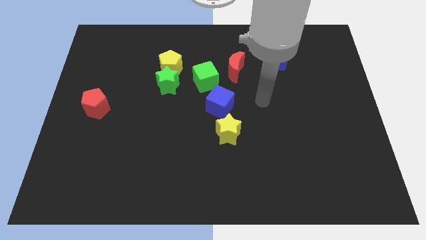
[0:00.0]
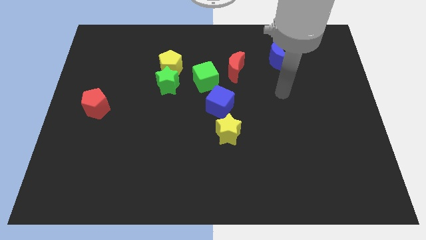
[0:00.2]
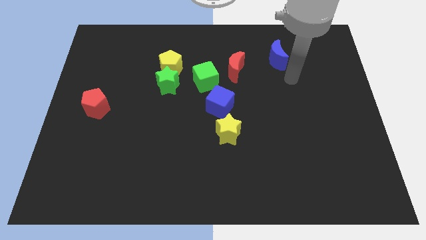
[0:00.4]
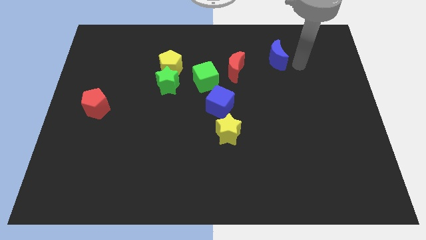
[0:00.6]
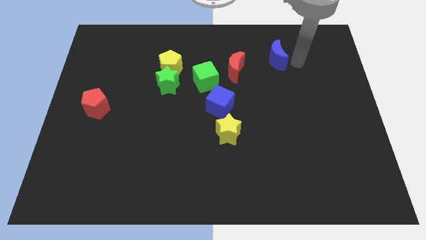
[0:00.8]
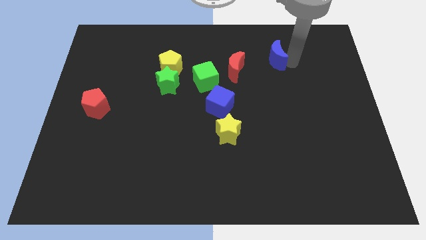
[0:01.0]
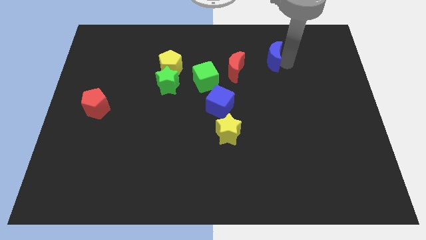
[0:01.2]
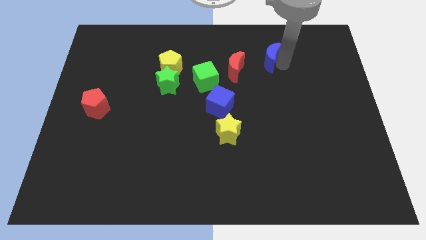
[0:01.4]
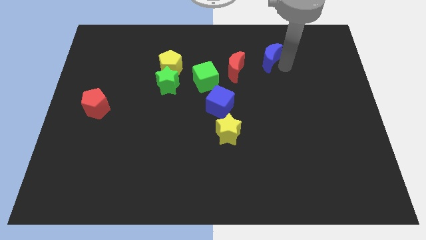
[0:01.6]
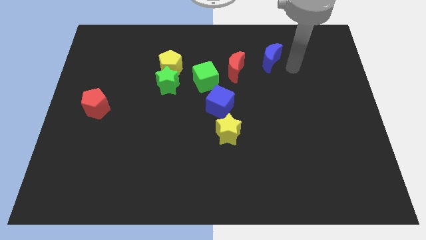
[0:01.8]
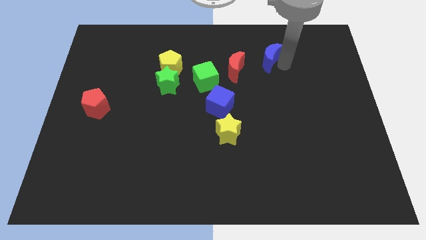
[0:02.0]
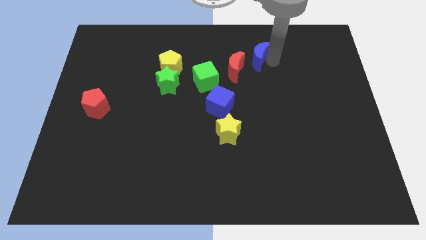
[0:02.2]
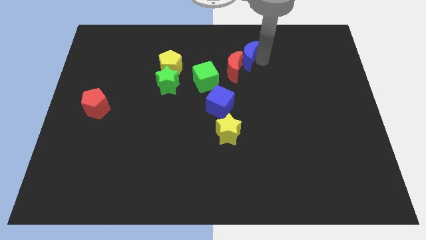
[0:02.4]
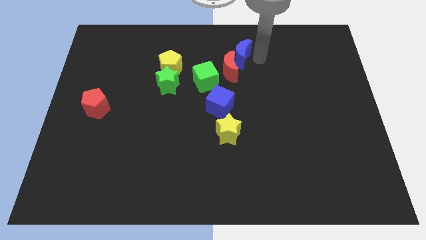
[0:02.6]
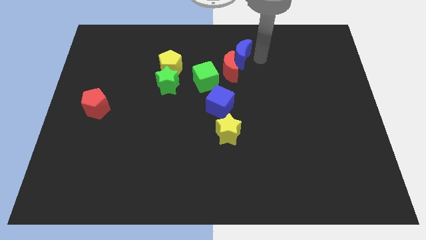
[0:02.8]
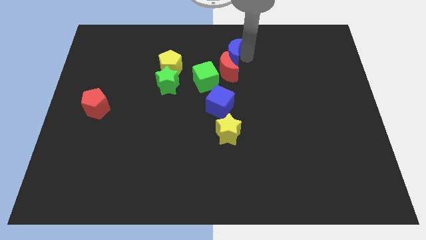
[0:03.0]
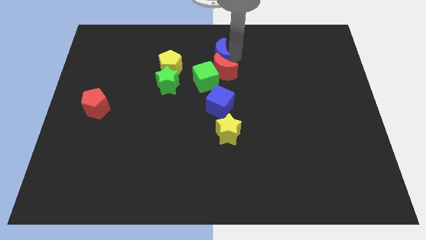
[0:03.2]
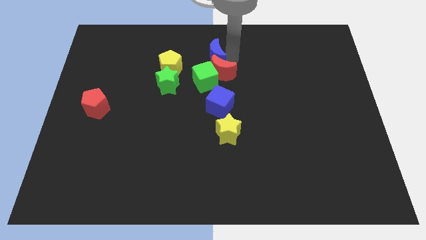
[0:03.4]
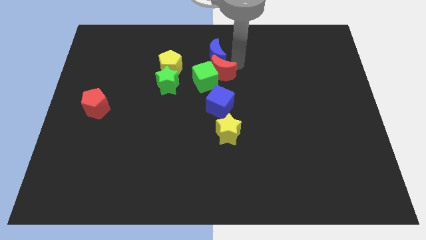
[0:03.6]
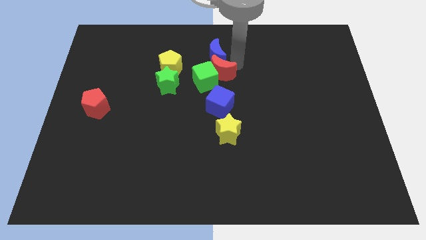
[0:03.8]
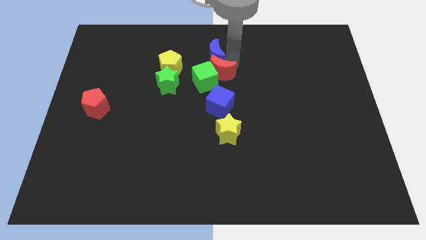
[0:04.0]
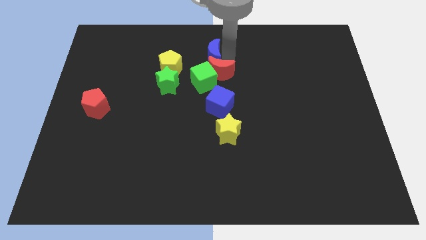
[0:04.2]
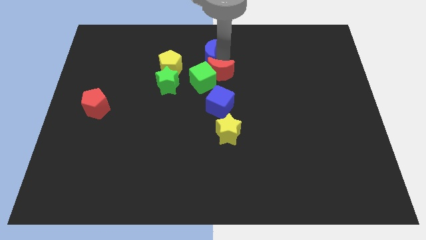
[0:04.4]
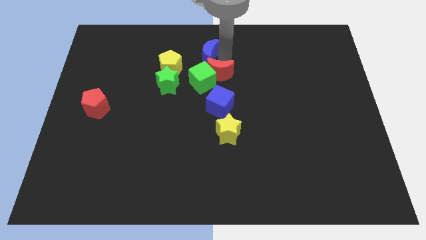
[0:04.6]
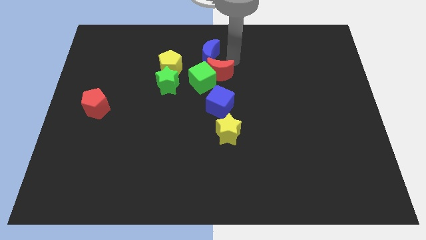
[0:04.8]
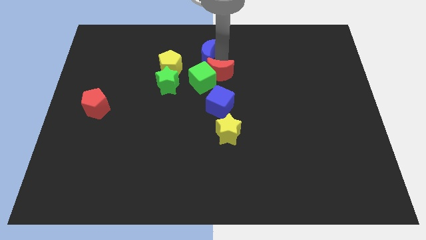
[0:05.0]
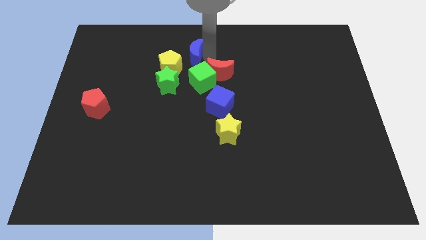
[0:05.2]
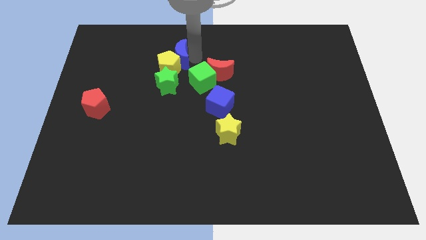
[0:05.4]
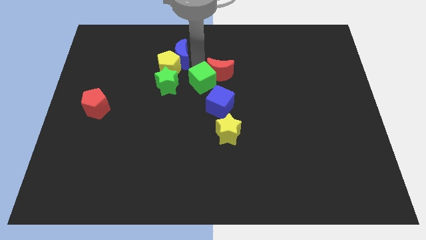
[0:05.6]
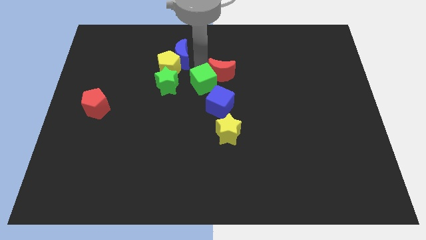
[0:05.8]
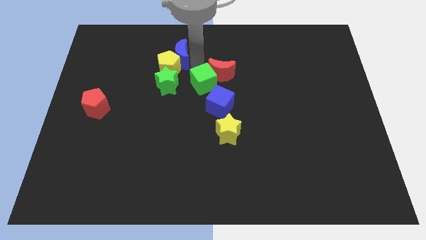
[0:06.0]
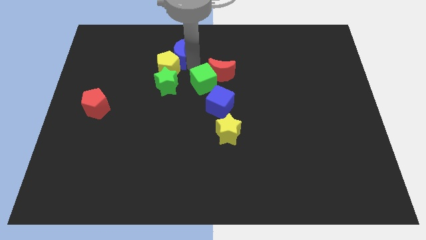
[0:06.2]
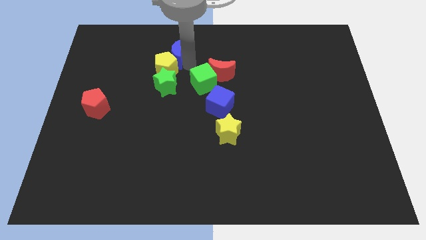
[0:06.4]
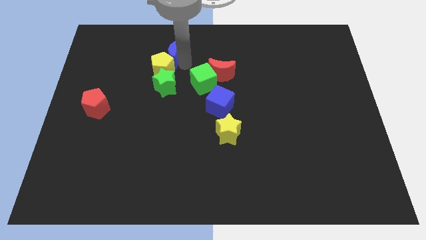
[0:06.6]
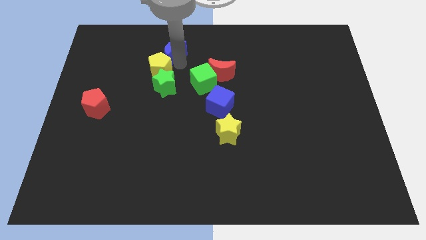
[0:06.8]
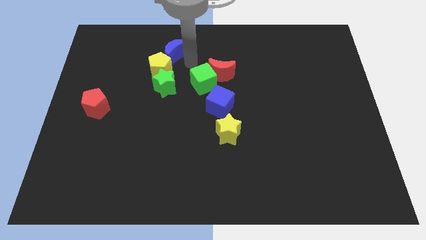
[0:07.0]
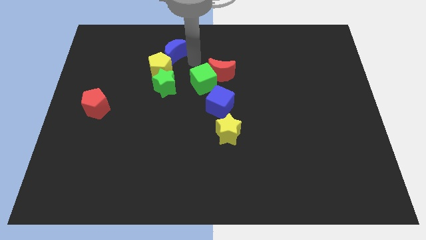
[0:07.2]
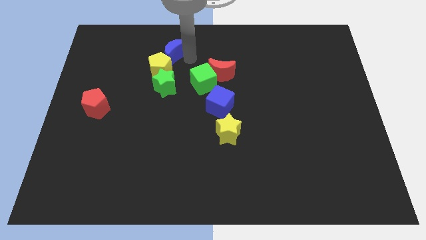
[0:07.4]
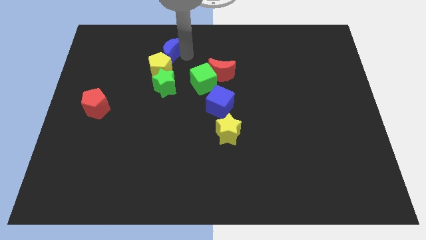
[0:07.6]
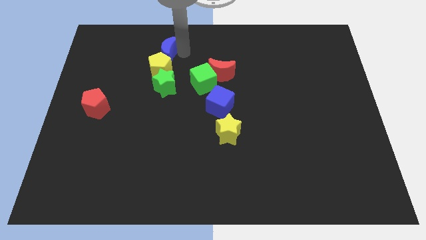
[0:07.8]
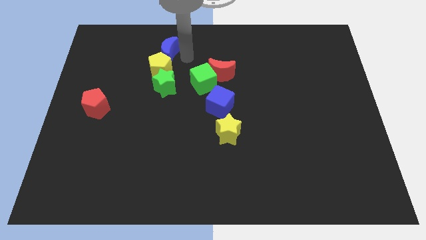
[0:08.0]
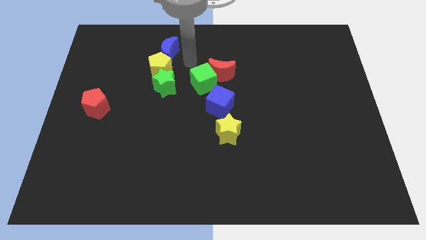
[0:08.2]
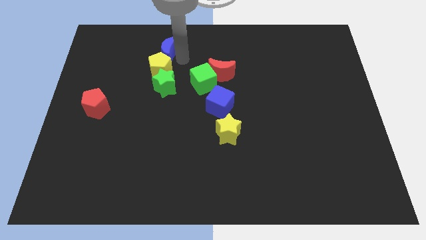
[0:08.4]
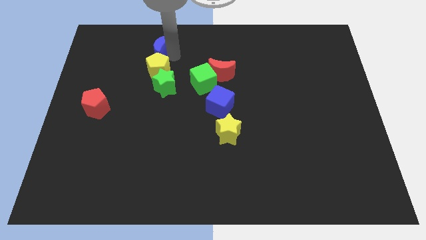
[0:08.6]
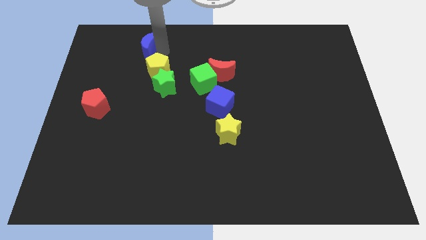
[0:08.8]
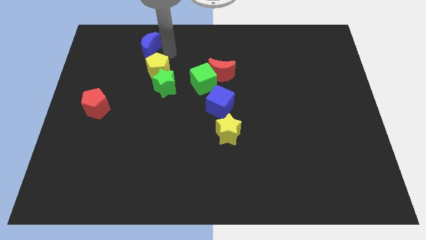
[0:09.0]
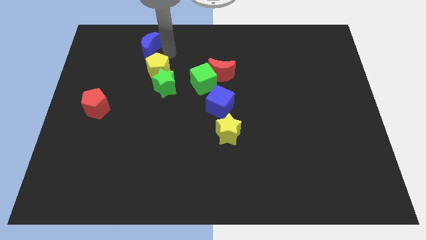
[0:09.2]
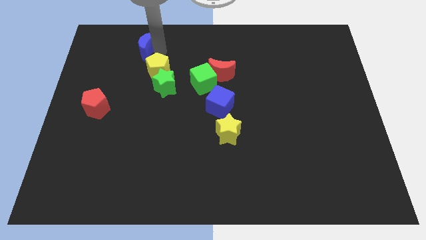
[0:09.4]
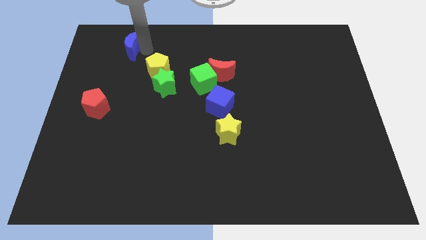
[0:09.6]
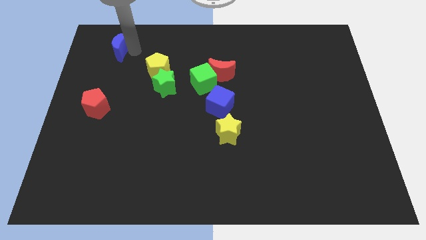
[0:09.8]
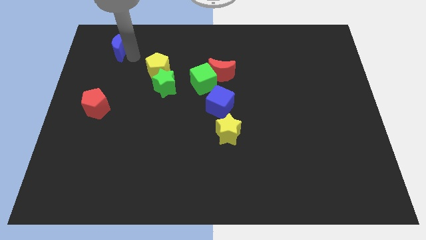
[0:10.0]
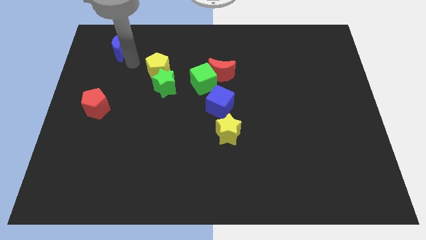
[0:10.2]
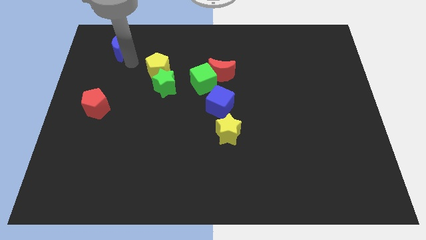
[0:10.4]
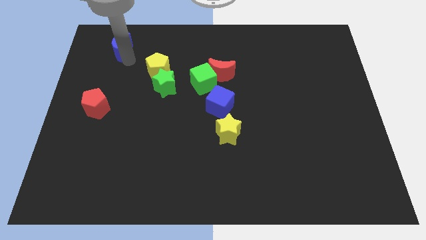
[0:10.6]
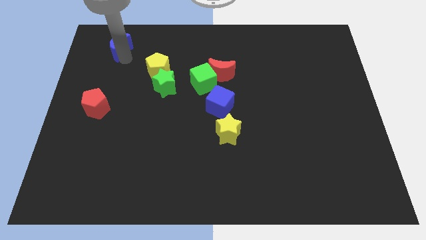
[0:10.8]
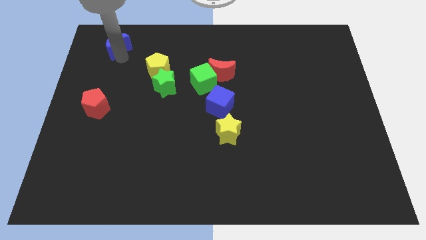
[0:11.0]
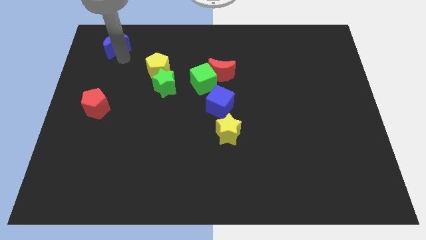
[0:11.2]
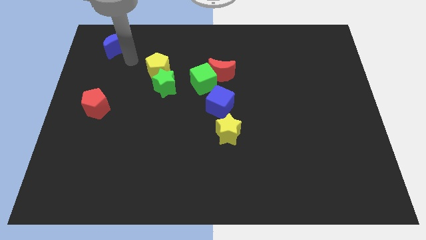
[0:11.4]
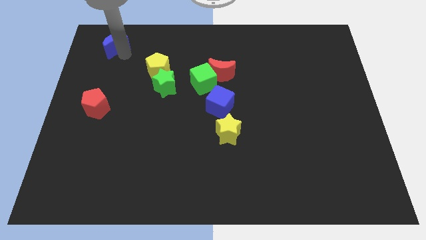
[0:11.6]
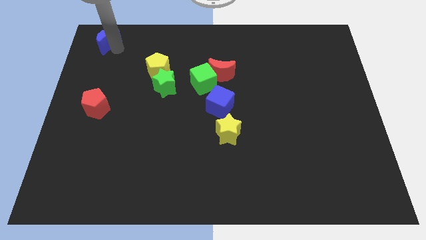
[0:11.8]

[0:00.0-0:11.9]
put the blue moon to the top left of the board

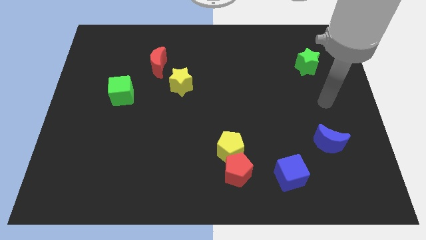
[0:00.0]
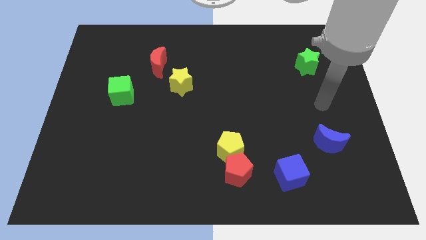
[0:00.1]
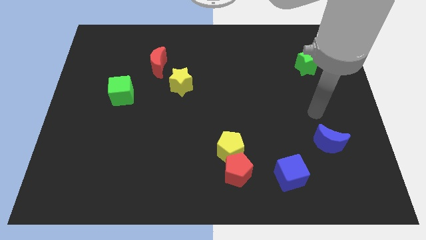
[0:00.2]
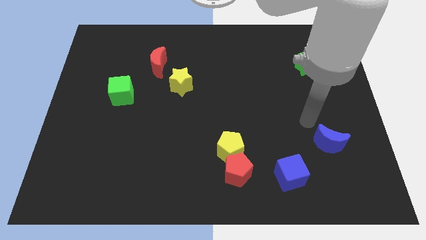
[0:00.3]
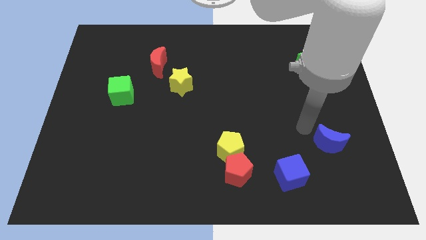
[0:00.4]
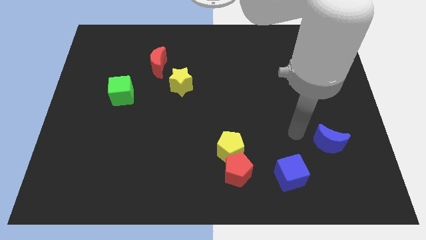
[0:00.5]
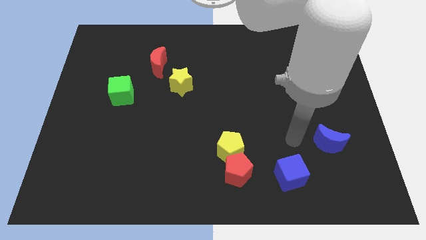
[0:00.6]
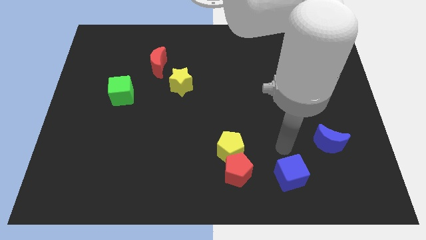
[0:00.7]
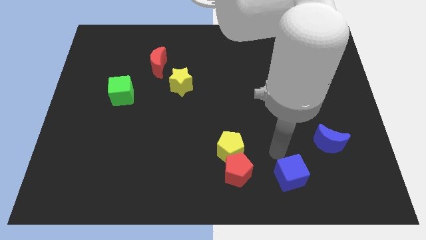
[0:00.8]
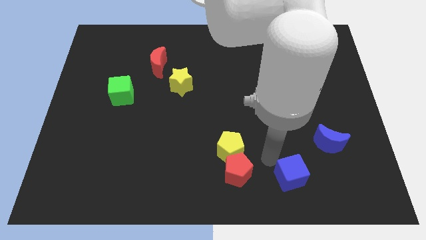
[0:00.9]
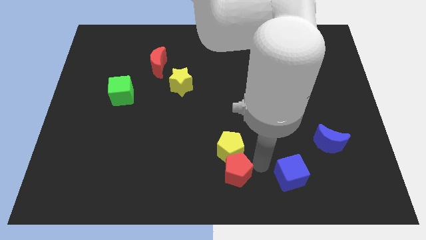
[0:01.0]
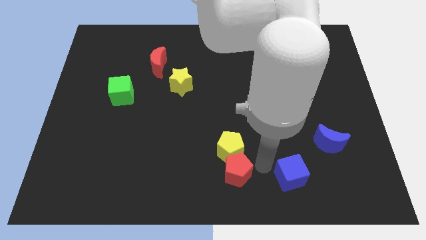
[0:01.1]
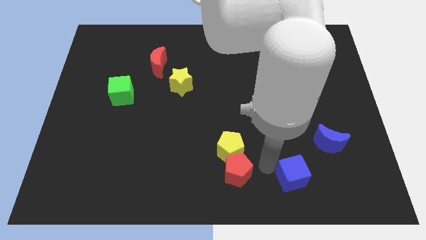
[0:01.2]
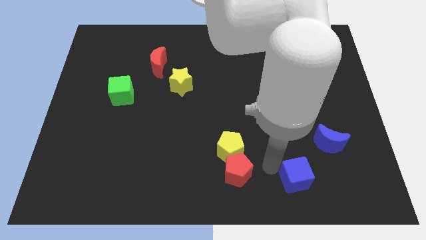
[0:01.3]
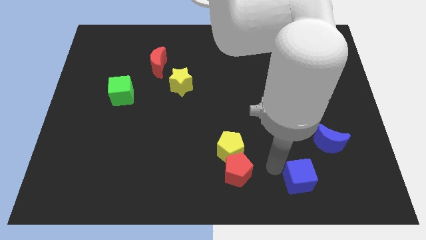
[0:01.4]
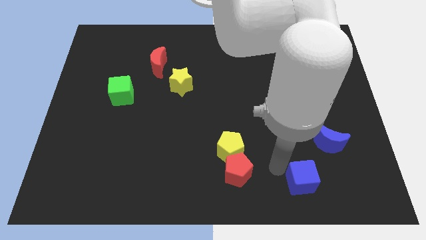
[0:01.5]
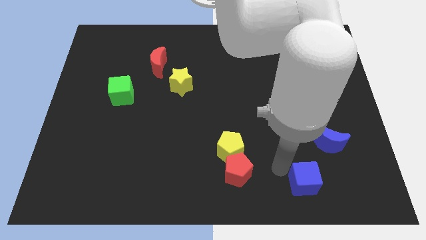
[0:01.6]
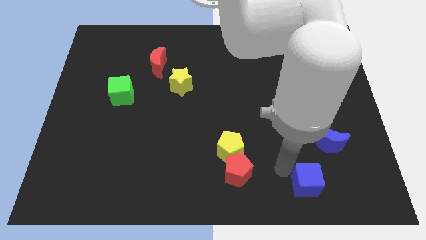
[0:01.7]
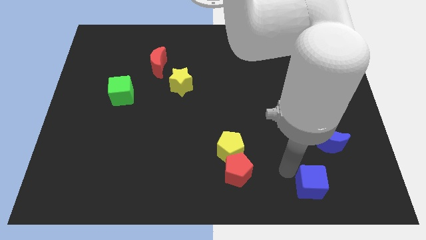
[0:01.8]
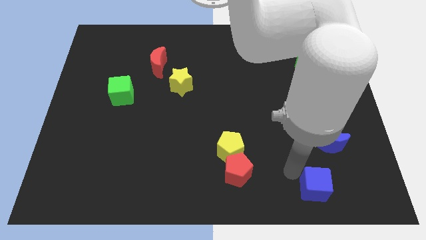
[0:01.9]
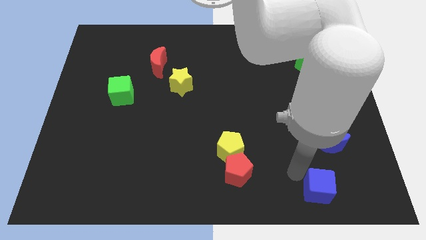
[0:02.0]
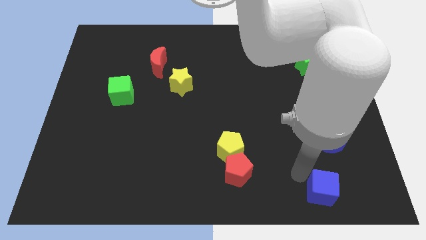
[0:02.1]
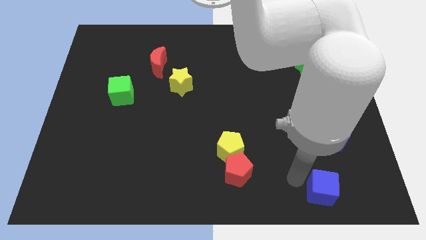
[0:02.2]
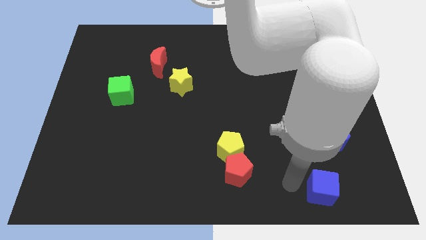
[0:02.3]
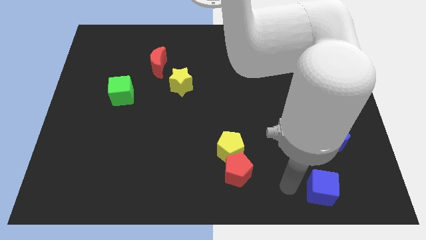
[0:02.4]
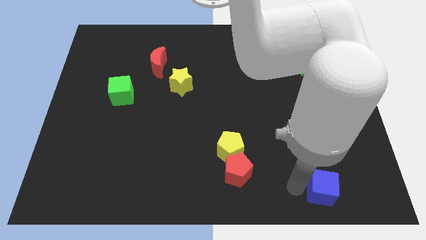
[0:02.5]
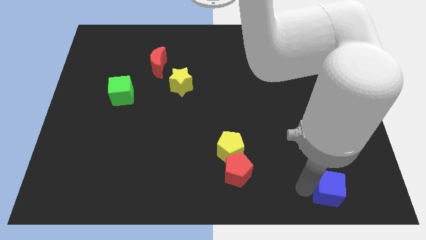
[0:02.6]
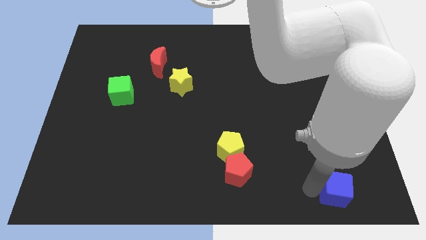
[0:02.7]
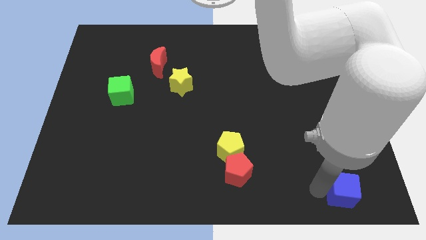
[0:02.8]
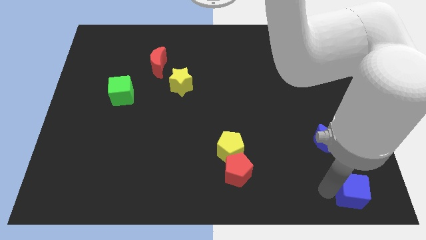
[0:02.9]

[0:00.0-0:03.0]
move the blue cube to the bottom right of the board
